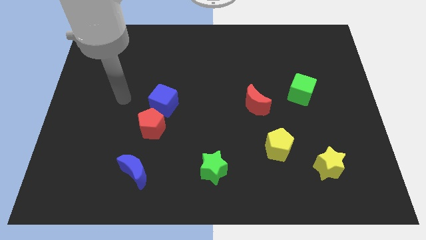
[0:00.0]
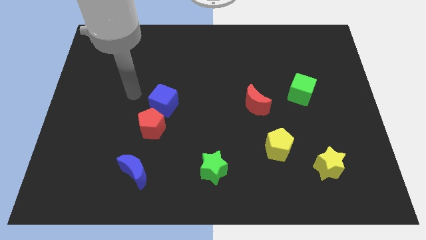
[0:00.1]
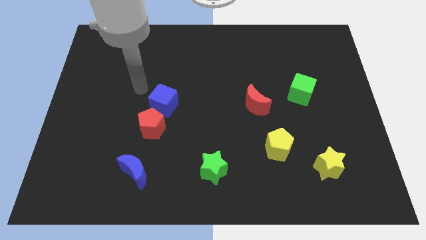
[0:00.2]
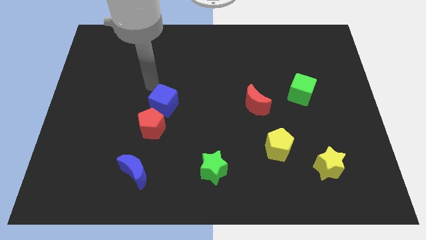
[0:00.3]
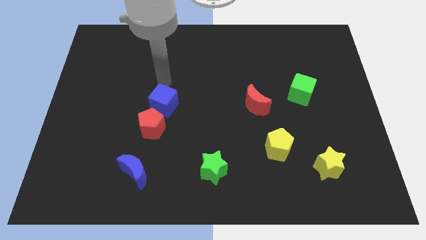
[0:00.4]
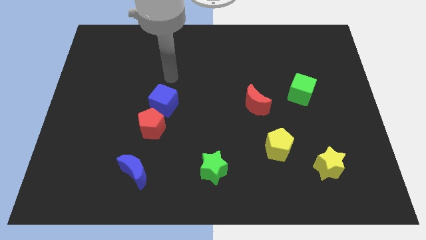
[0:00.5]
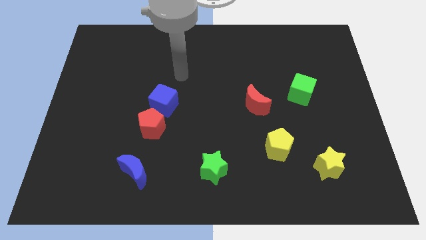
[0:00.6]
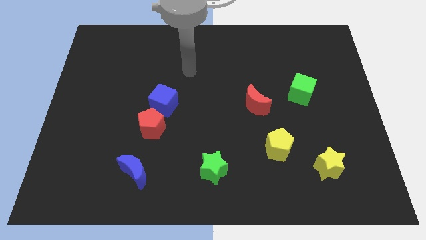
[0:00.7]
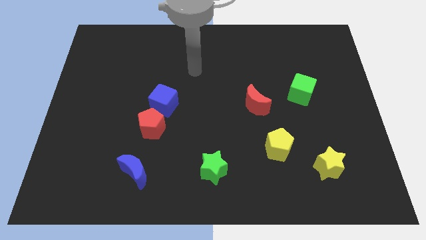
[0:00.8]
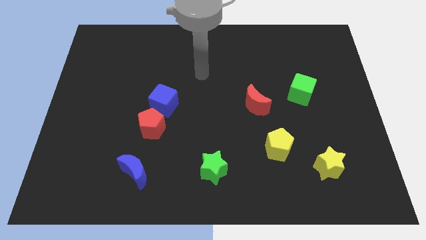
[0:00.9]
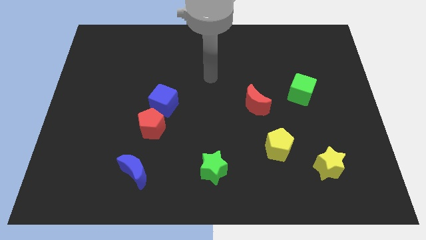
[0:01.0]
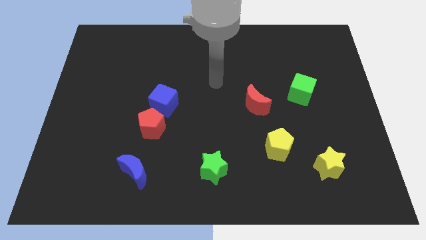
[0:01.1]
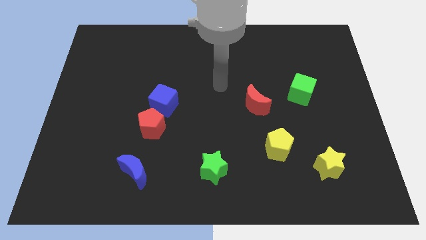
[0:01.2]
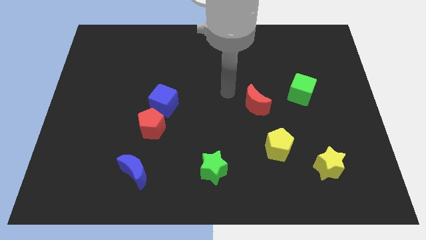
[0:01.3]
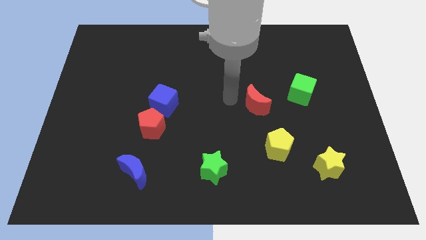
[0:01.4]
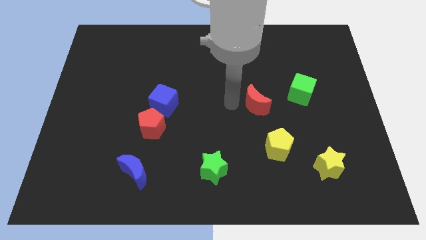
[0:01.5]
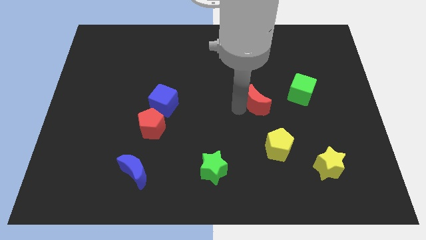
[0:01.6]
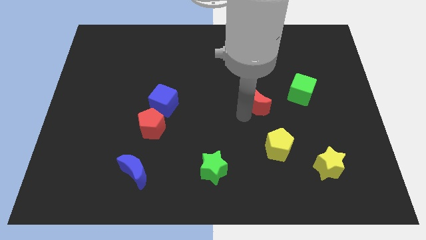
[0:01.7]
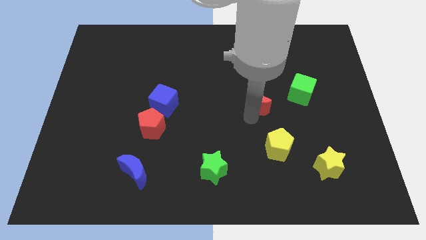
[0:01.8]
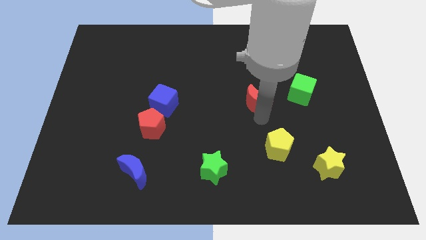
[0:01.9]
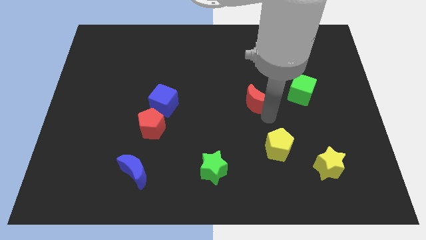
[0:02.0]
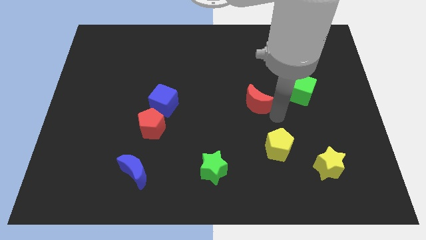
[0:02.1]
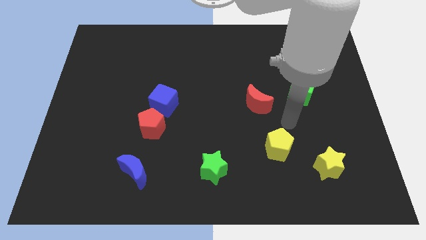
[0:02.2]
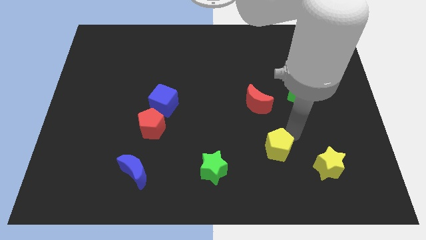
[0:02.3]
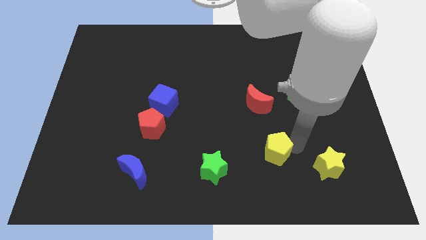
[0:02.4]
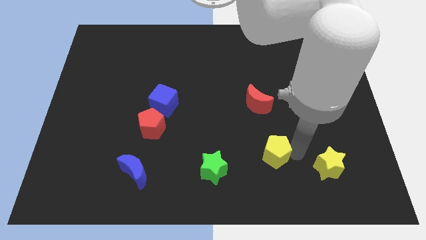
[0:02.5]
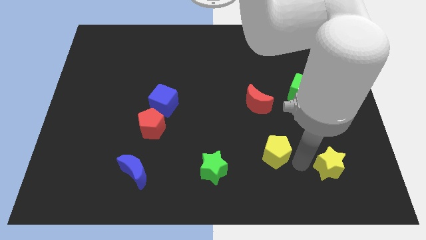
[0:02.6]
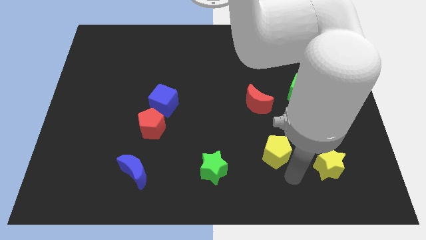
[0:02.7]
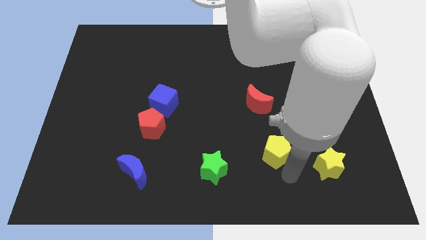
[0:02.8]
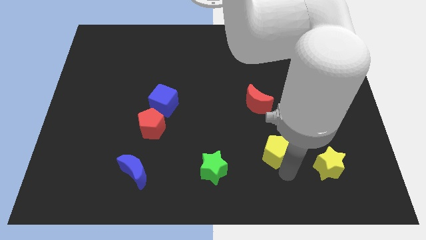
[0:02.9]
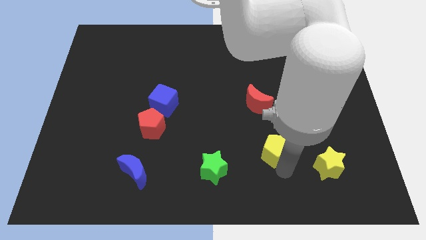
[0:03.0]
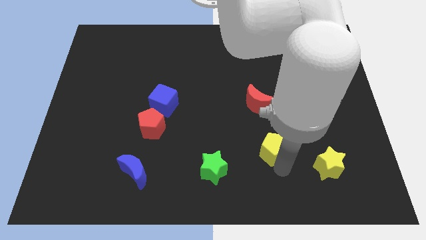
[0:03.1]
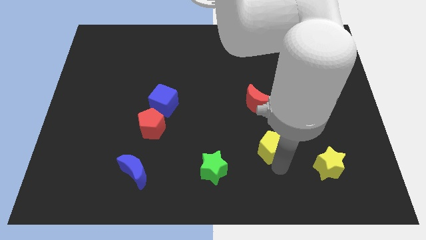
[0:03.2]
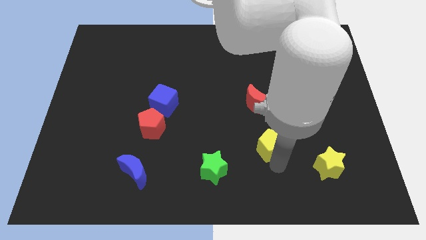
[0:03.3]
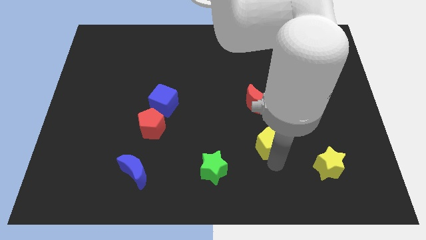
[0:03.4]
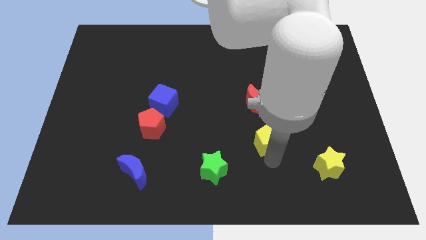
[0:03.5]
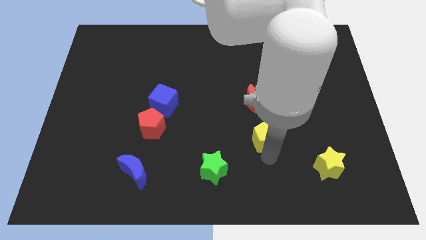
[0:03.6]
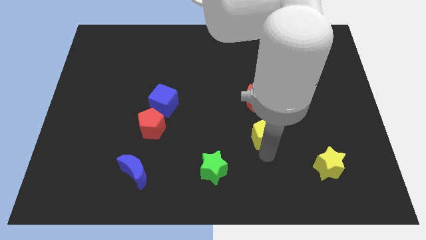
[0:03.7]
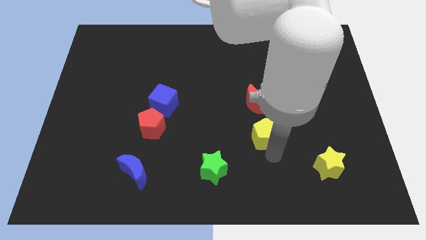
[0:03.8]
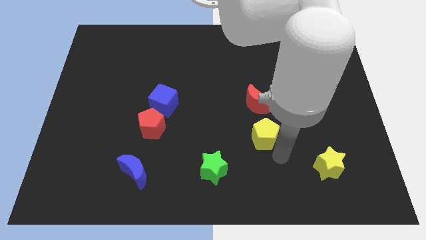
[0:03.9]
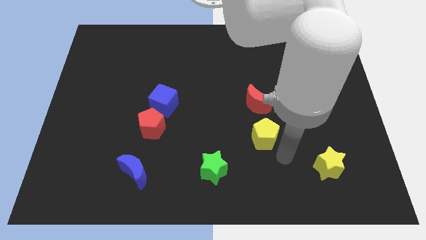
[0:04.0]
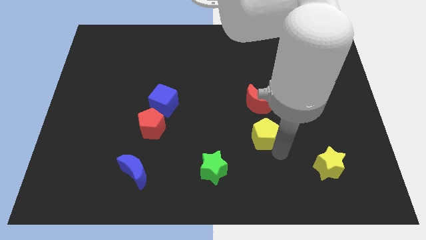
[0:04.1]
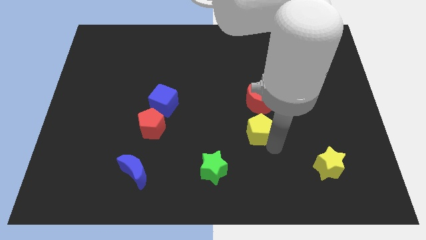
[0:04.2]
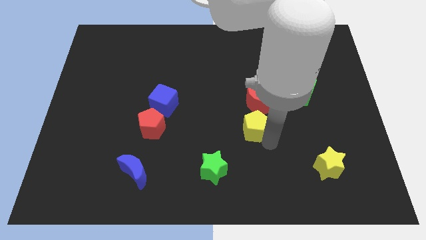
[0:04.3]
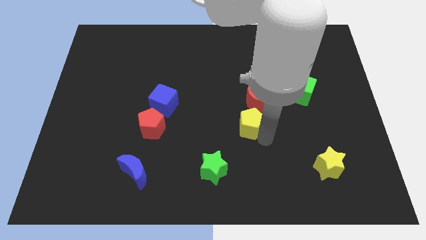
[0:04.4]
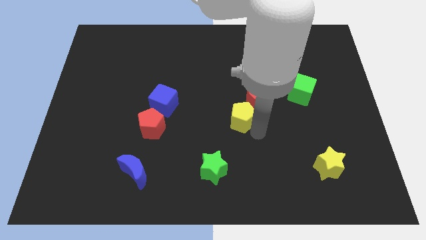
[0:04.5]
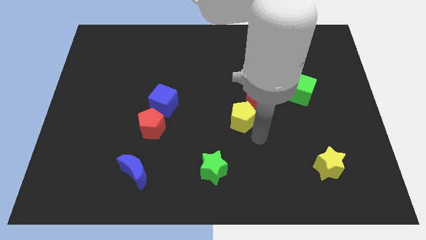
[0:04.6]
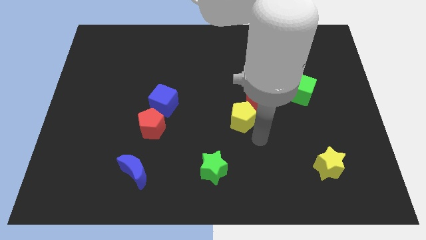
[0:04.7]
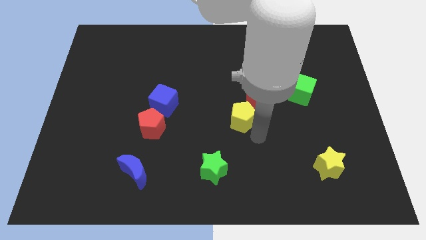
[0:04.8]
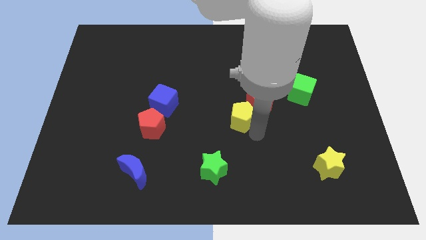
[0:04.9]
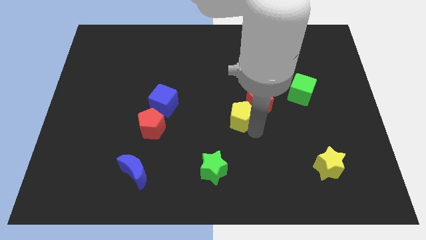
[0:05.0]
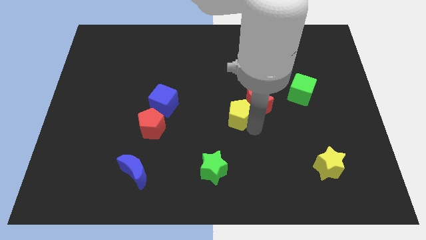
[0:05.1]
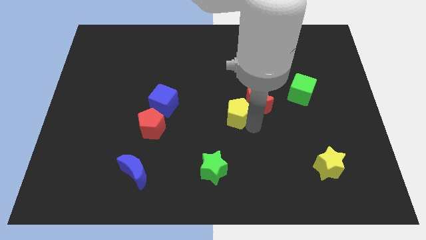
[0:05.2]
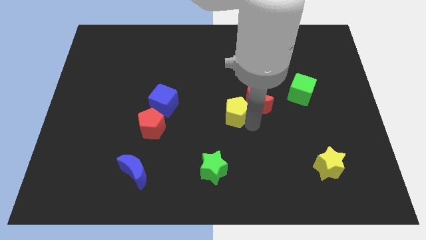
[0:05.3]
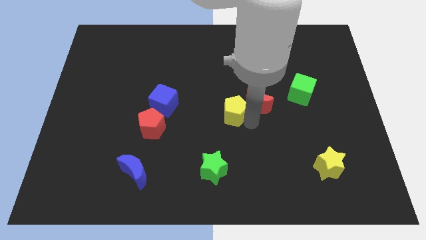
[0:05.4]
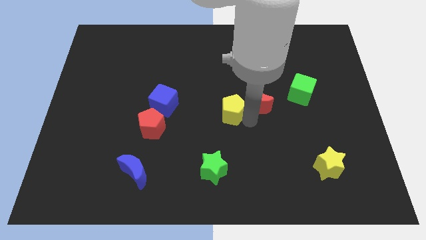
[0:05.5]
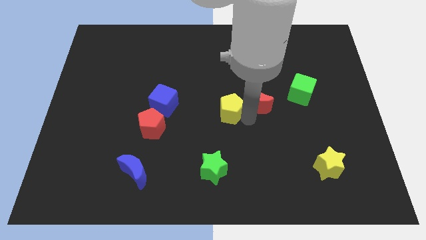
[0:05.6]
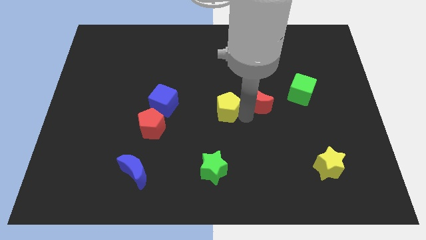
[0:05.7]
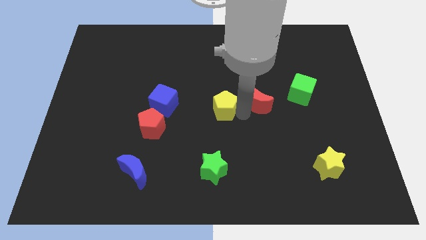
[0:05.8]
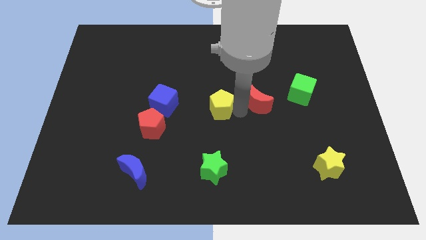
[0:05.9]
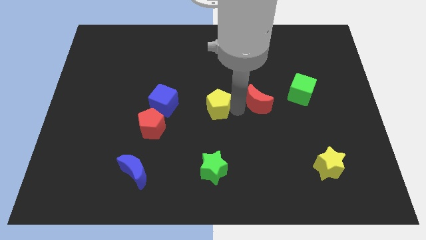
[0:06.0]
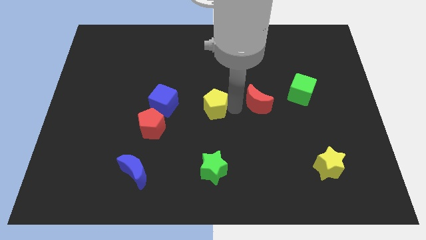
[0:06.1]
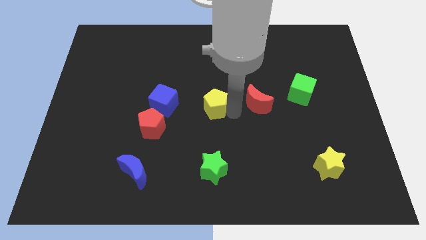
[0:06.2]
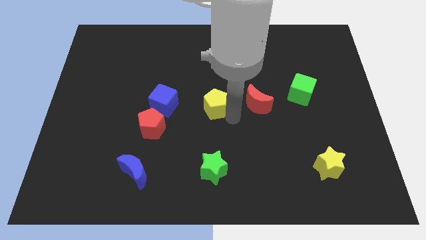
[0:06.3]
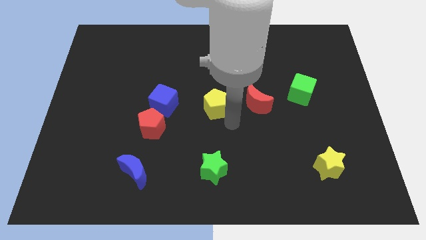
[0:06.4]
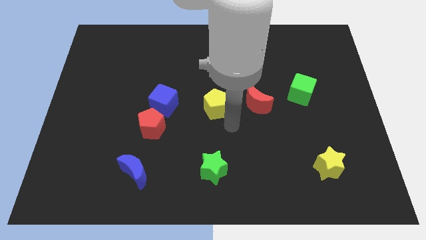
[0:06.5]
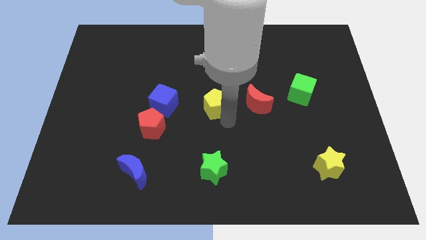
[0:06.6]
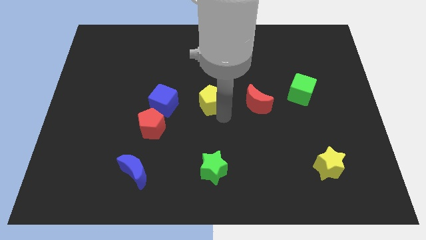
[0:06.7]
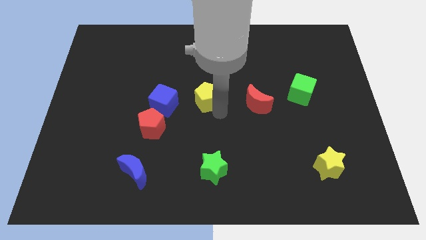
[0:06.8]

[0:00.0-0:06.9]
slide the yellow pentagon diagonally up and to the left

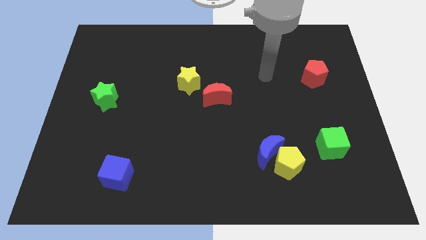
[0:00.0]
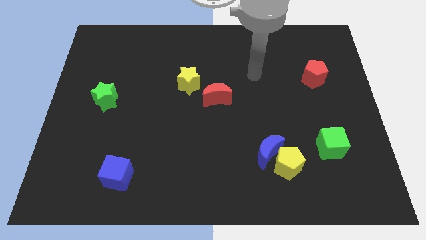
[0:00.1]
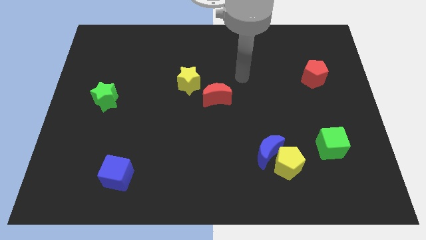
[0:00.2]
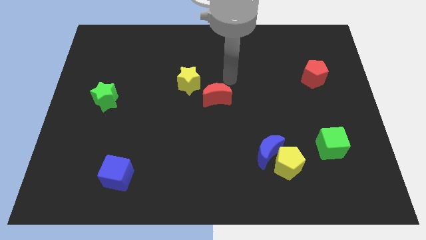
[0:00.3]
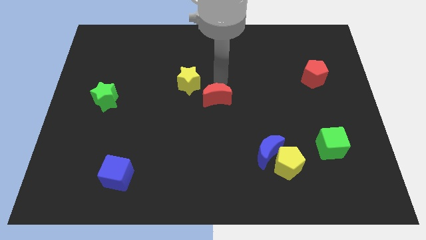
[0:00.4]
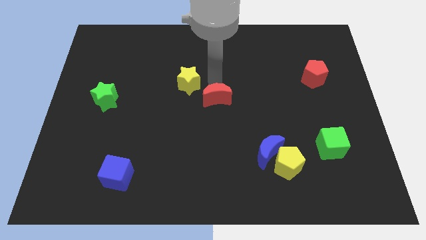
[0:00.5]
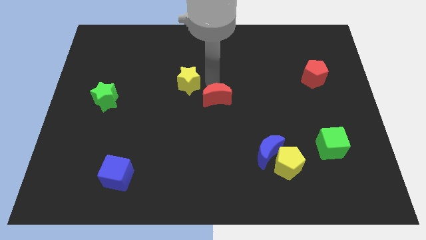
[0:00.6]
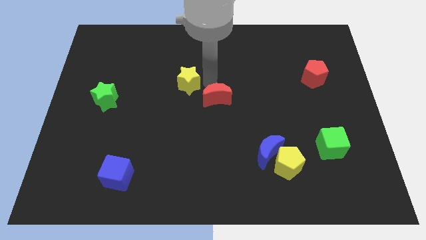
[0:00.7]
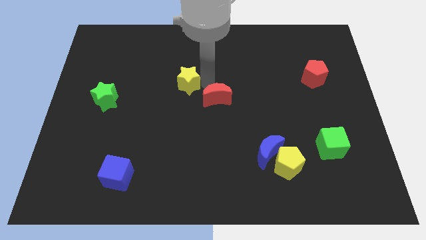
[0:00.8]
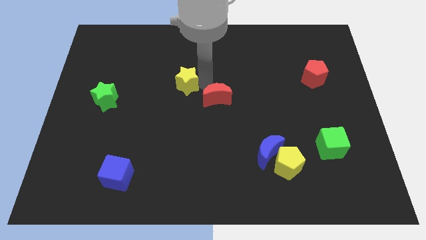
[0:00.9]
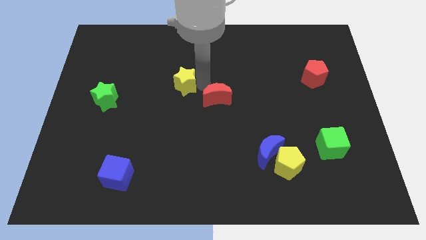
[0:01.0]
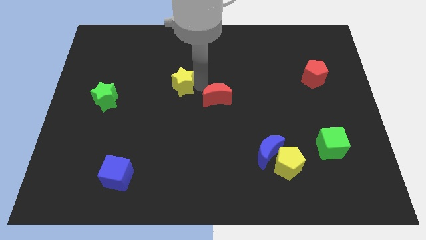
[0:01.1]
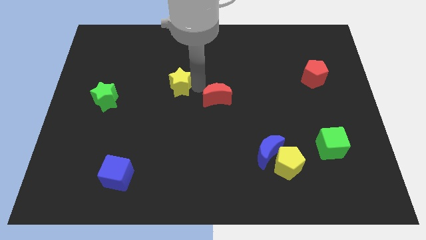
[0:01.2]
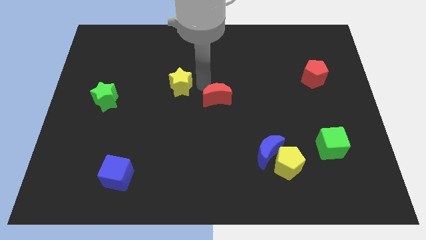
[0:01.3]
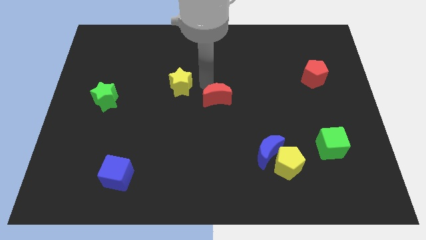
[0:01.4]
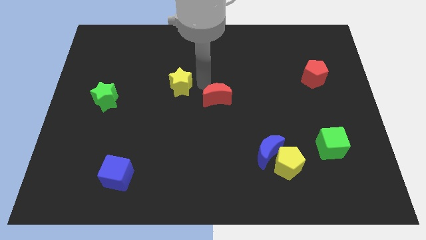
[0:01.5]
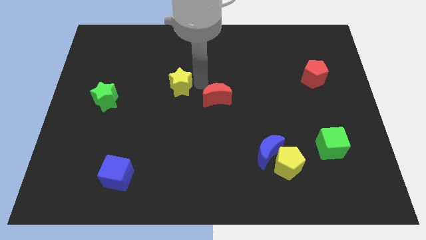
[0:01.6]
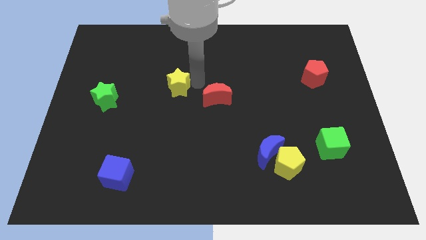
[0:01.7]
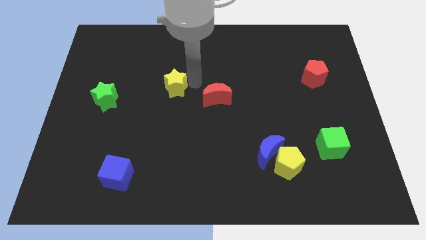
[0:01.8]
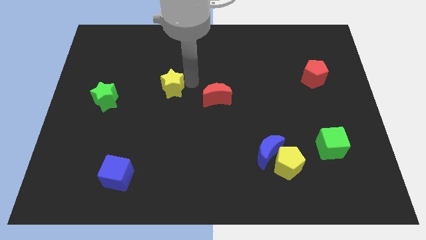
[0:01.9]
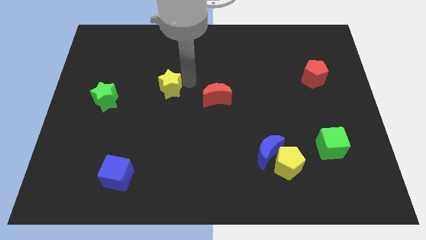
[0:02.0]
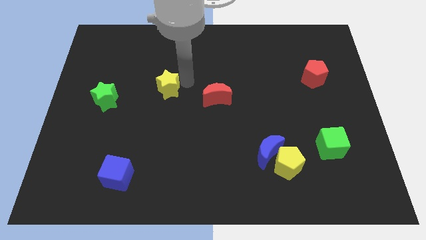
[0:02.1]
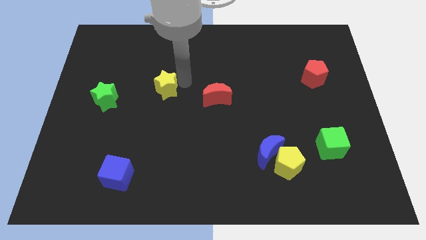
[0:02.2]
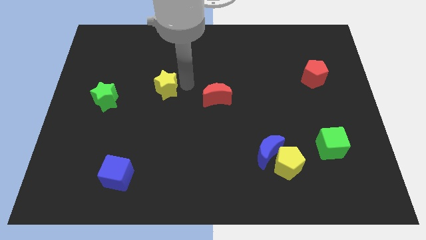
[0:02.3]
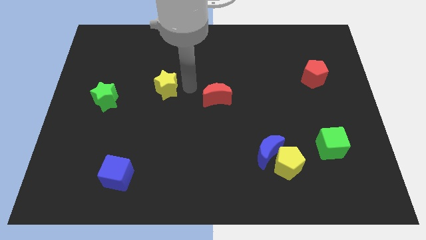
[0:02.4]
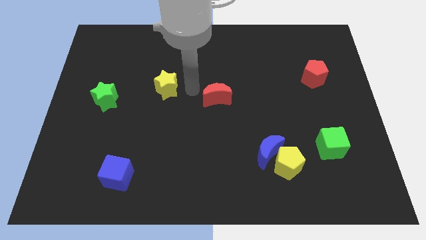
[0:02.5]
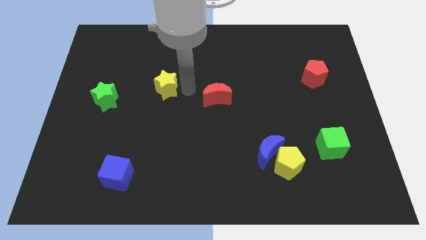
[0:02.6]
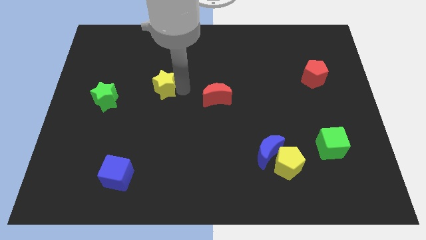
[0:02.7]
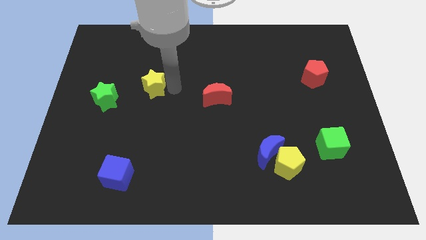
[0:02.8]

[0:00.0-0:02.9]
push the yellow star to the left slightly
